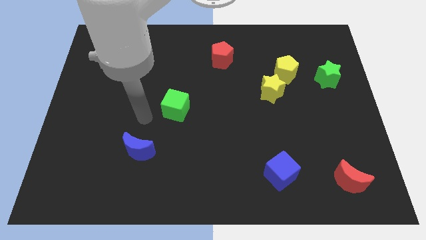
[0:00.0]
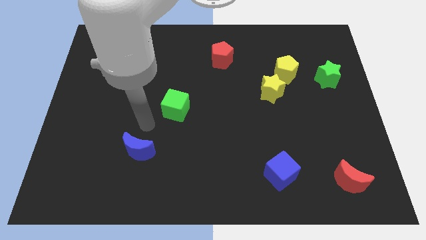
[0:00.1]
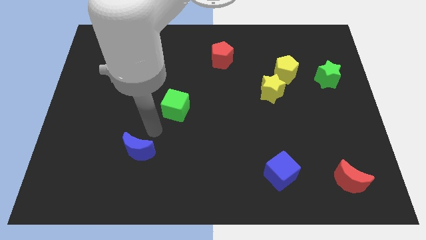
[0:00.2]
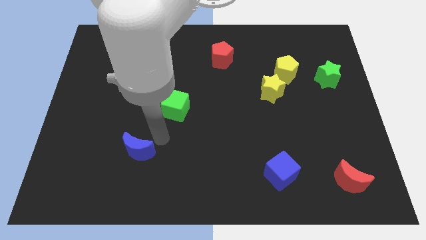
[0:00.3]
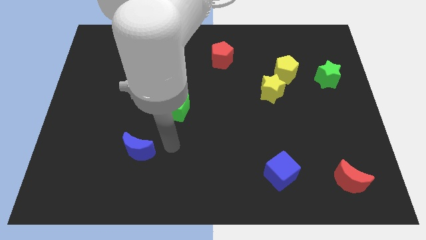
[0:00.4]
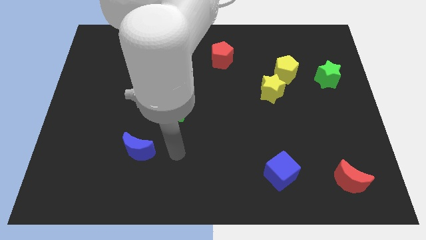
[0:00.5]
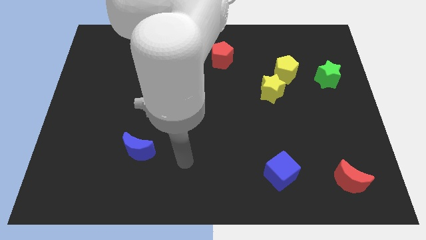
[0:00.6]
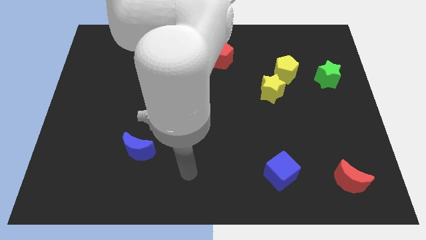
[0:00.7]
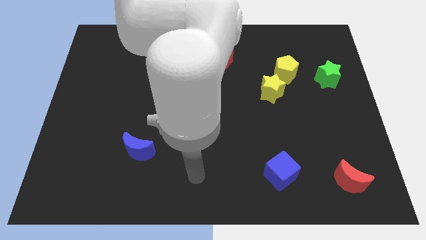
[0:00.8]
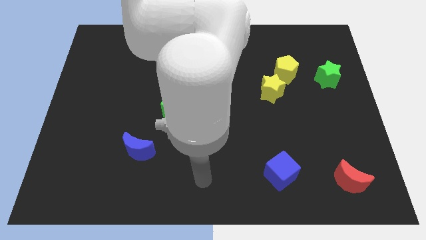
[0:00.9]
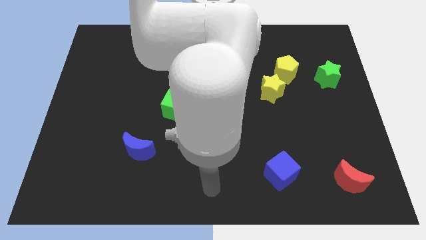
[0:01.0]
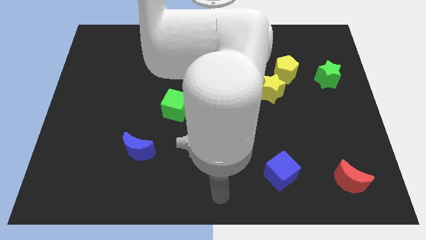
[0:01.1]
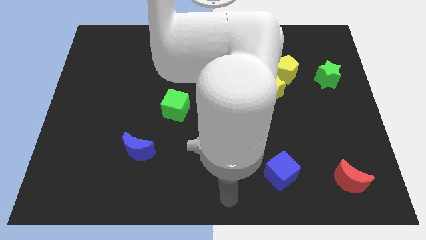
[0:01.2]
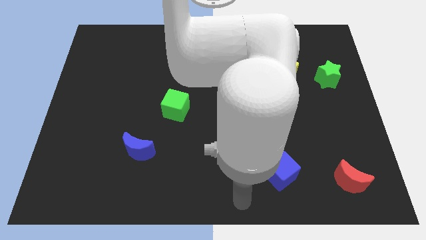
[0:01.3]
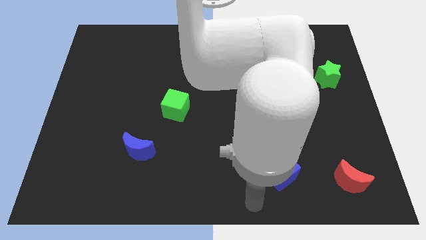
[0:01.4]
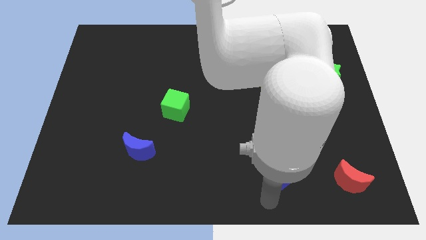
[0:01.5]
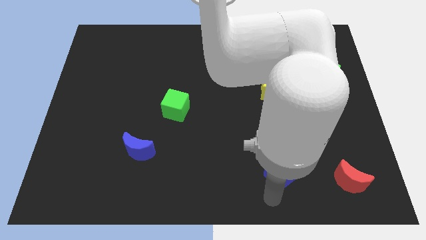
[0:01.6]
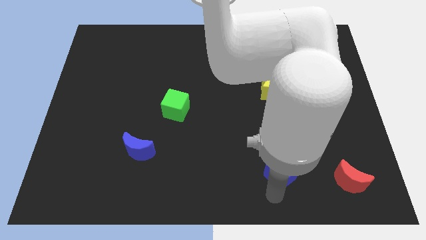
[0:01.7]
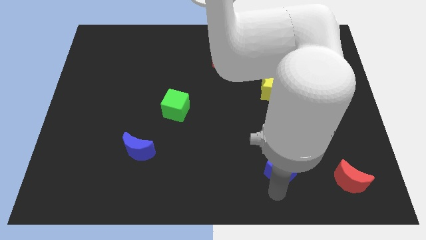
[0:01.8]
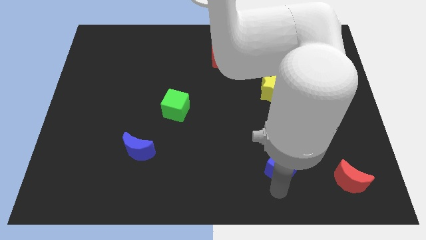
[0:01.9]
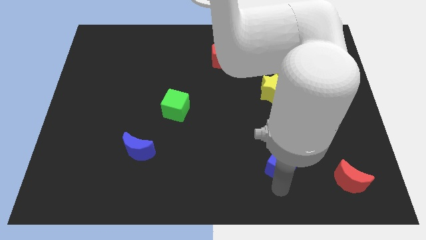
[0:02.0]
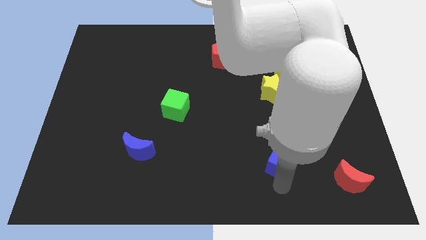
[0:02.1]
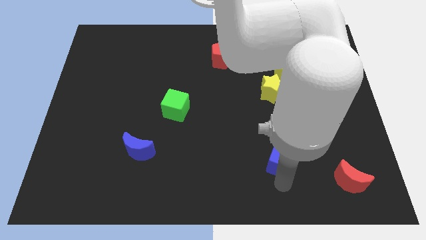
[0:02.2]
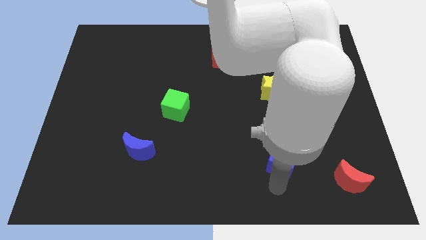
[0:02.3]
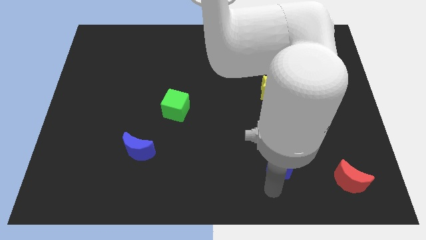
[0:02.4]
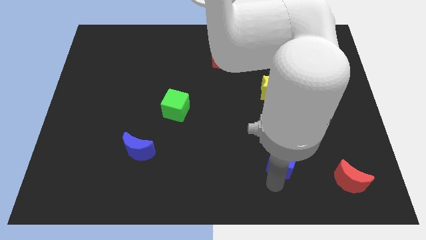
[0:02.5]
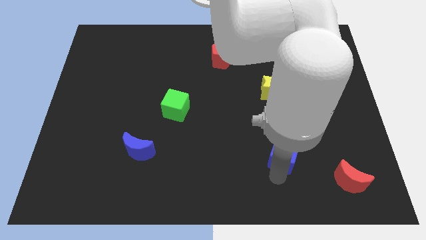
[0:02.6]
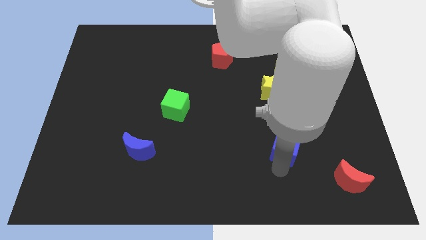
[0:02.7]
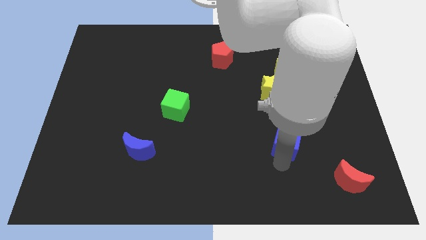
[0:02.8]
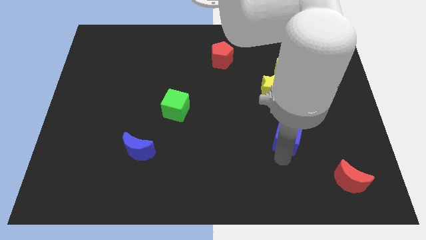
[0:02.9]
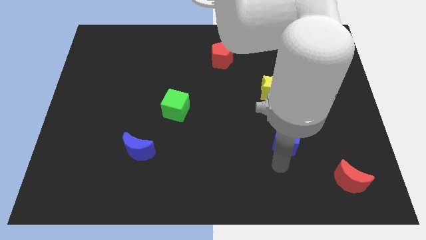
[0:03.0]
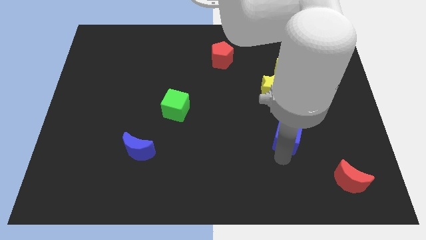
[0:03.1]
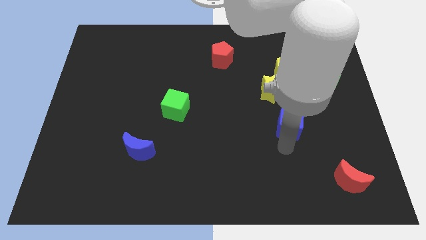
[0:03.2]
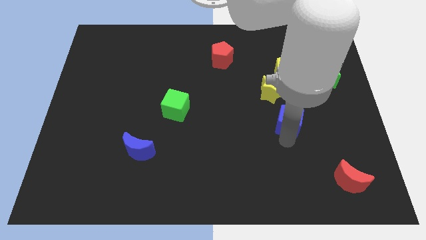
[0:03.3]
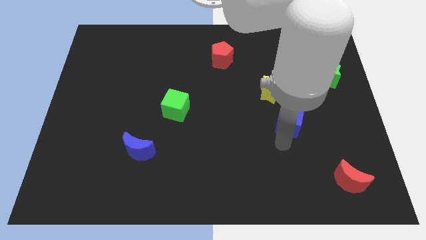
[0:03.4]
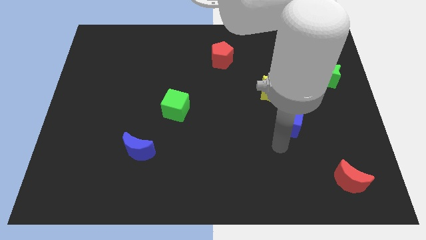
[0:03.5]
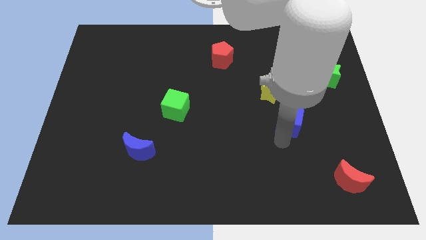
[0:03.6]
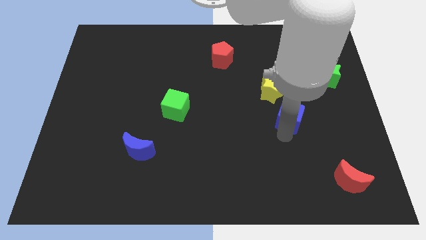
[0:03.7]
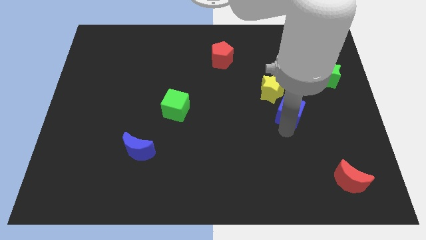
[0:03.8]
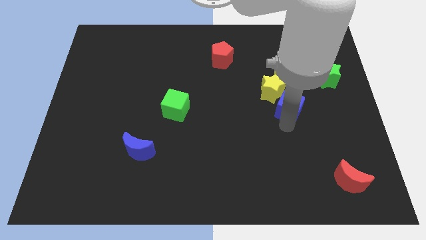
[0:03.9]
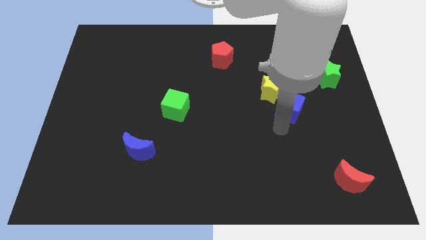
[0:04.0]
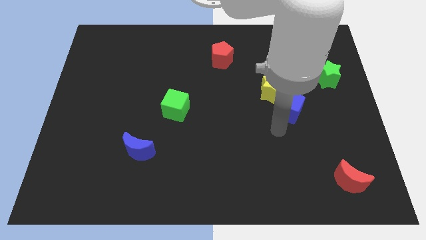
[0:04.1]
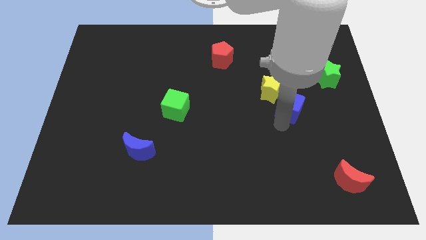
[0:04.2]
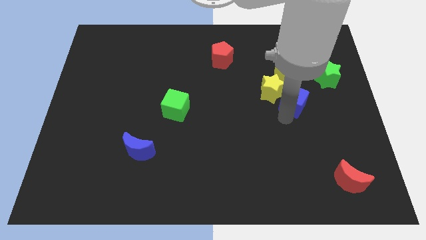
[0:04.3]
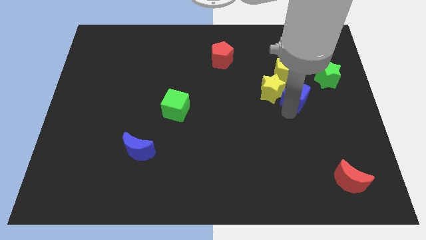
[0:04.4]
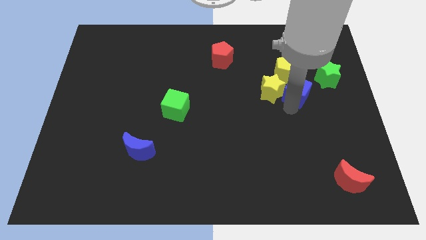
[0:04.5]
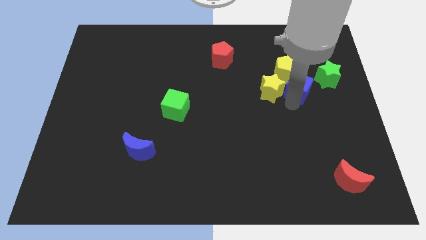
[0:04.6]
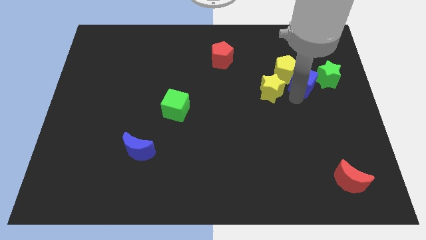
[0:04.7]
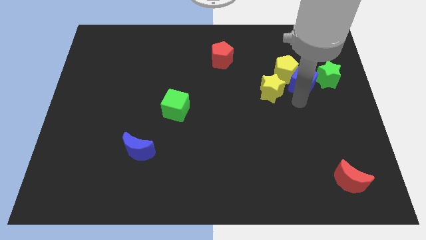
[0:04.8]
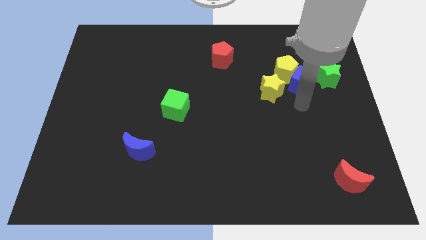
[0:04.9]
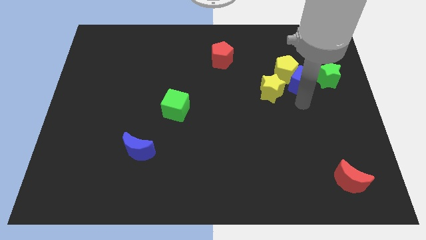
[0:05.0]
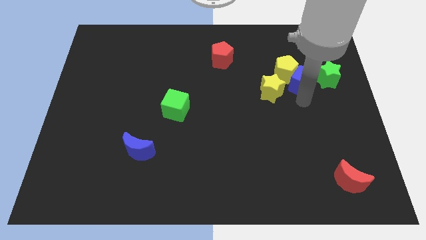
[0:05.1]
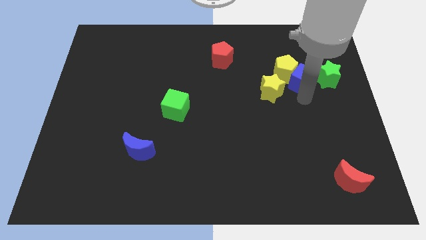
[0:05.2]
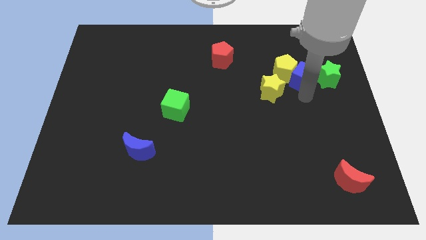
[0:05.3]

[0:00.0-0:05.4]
move the blue cube to the top left side of the green star
